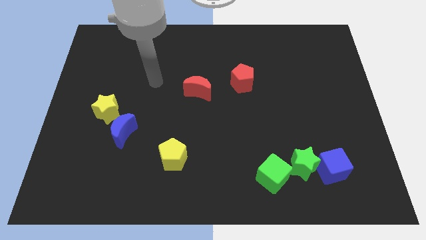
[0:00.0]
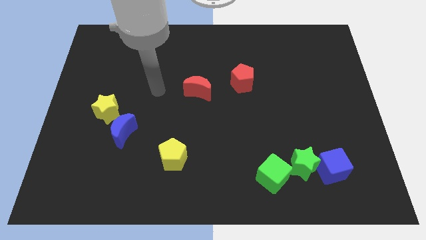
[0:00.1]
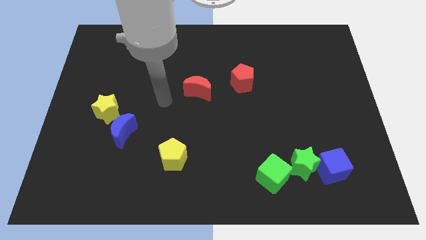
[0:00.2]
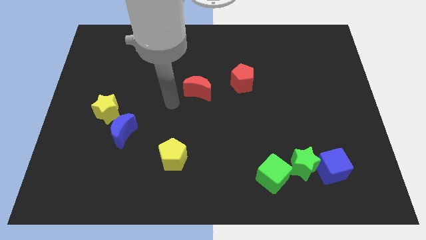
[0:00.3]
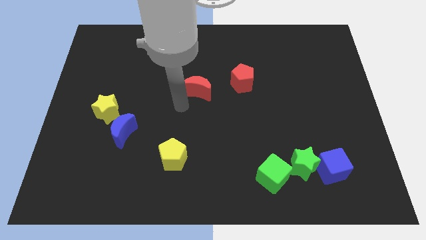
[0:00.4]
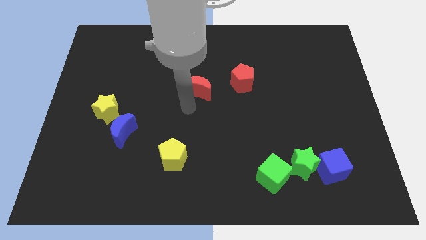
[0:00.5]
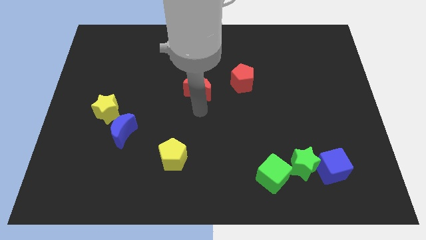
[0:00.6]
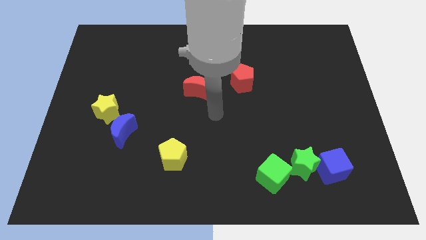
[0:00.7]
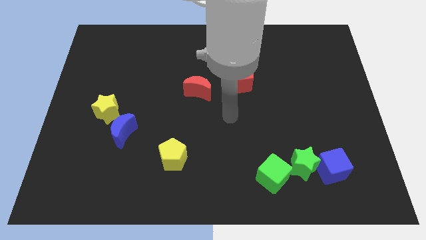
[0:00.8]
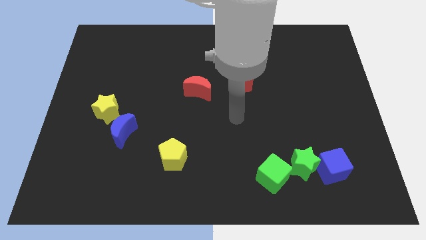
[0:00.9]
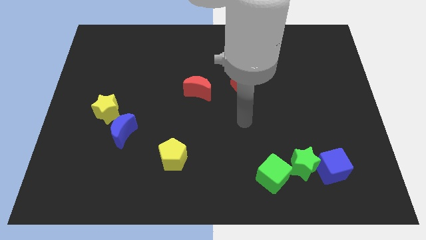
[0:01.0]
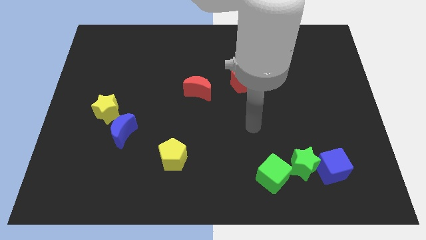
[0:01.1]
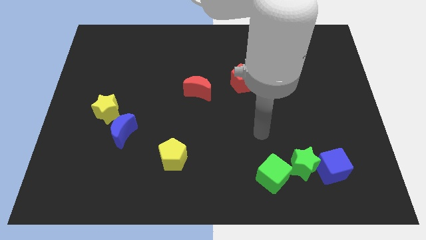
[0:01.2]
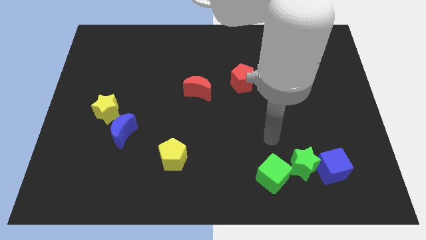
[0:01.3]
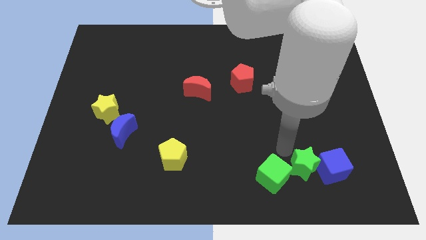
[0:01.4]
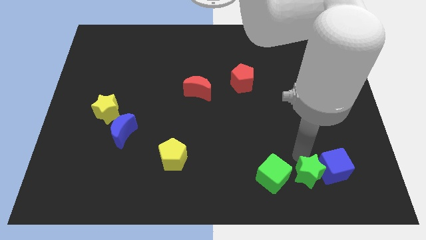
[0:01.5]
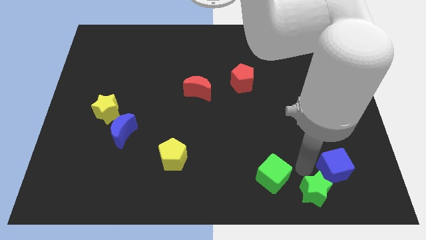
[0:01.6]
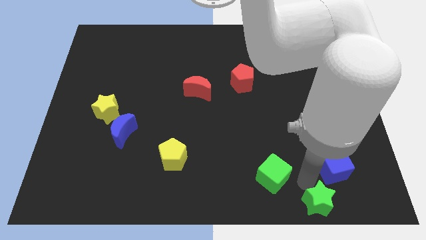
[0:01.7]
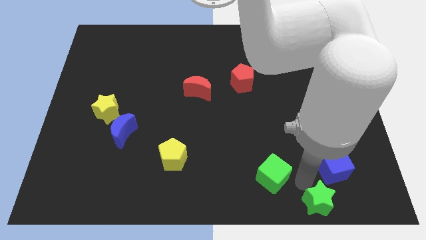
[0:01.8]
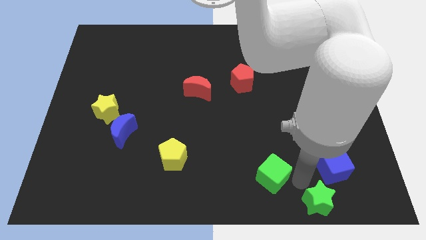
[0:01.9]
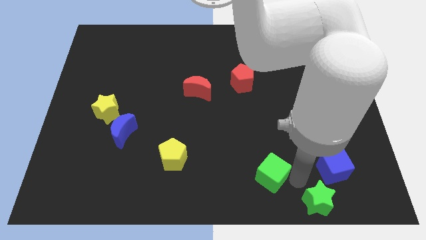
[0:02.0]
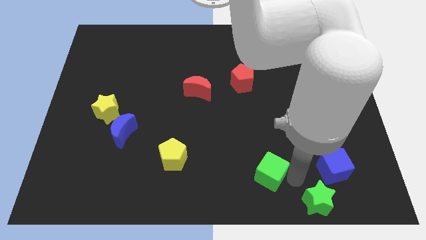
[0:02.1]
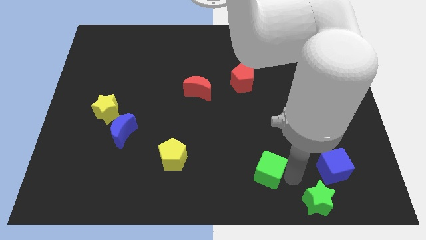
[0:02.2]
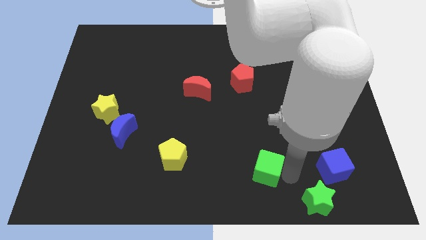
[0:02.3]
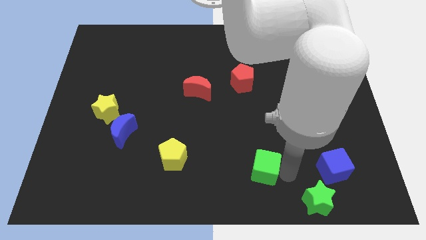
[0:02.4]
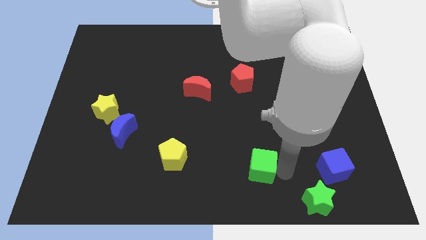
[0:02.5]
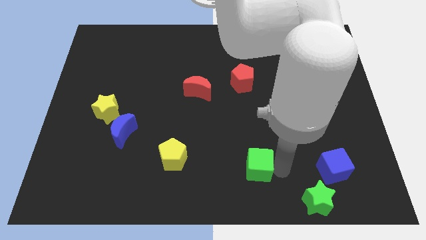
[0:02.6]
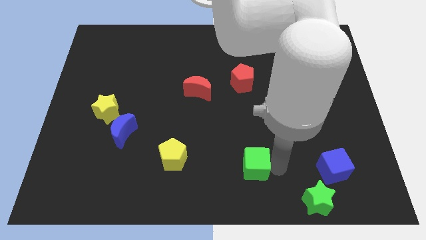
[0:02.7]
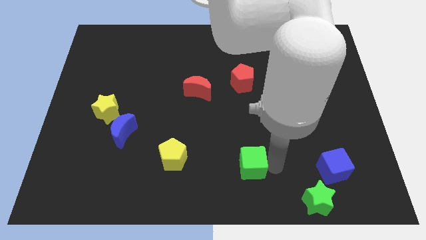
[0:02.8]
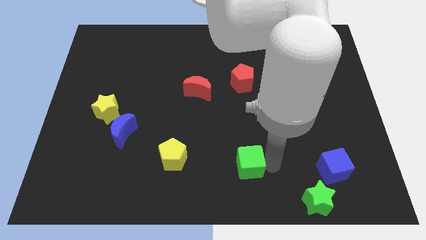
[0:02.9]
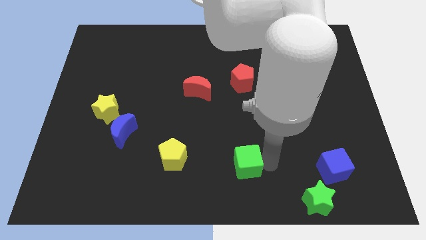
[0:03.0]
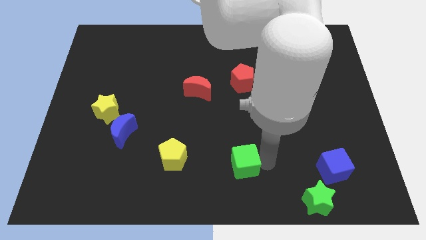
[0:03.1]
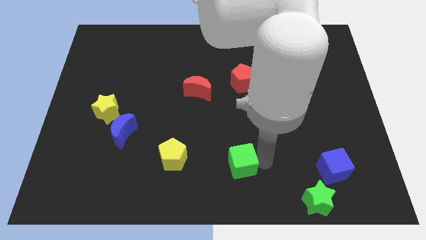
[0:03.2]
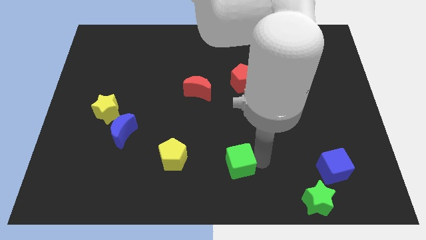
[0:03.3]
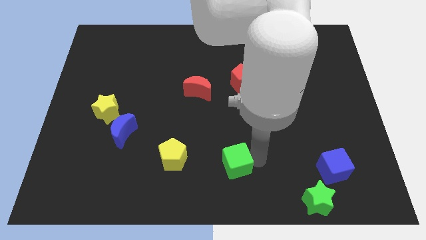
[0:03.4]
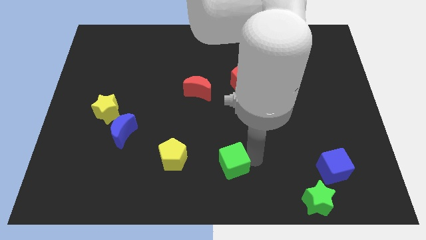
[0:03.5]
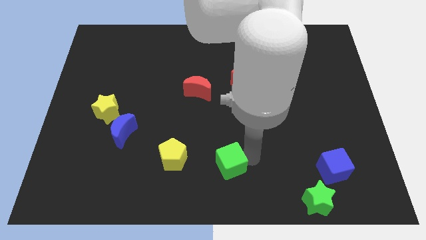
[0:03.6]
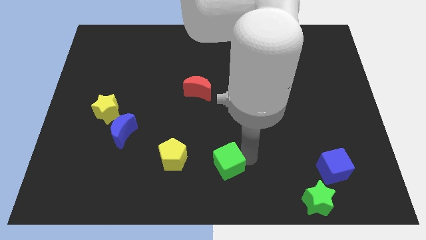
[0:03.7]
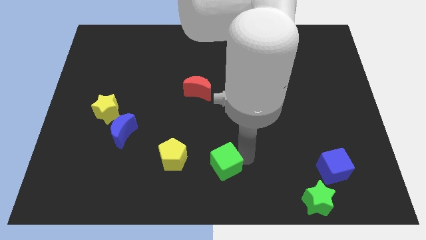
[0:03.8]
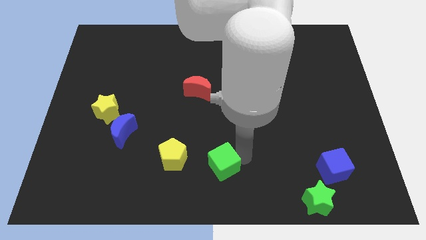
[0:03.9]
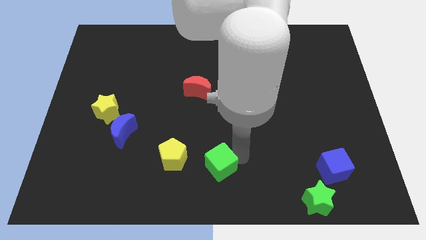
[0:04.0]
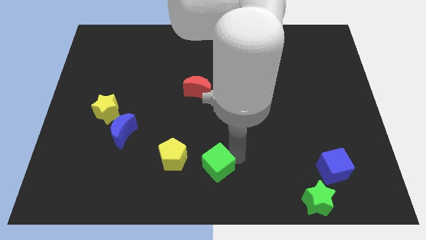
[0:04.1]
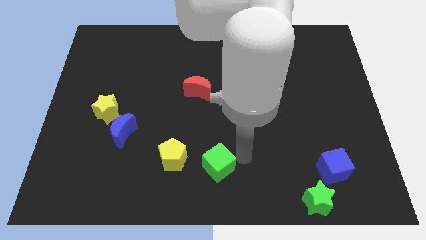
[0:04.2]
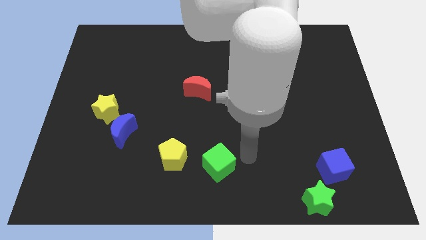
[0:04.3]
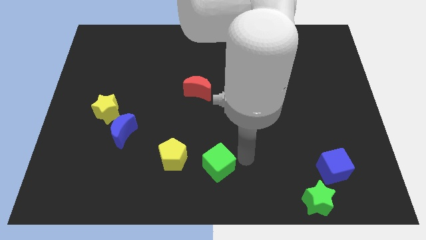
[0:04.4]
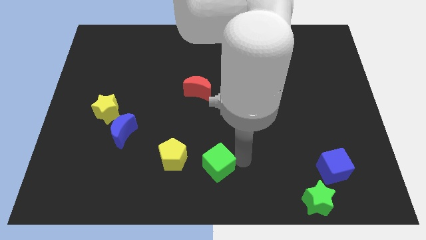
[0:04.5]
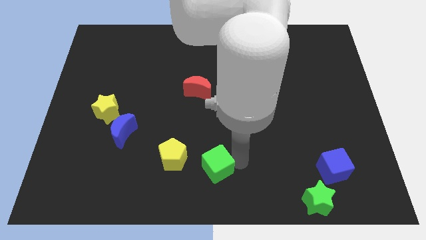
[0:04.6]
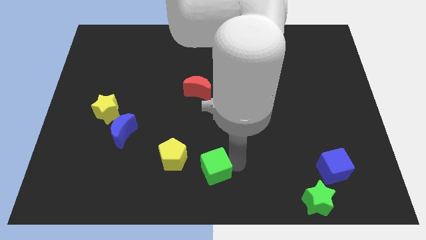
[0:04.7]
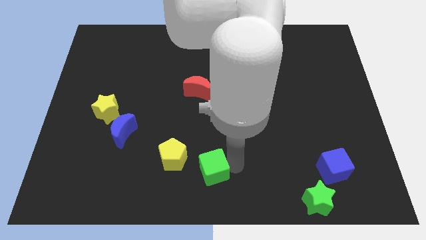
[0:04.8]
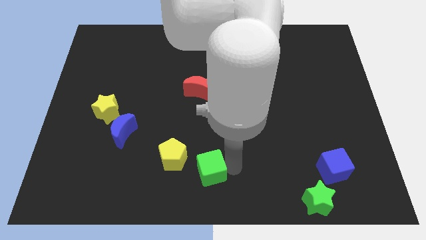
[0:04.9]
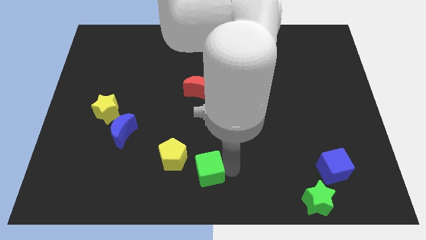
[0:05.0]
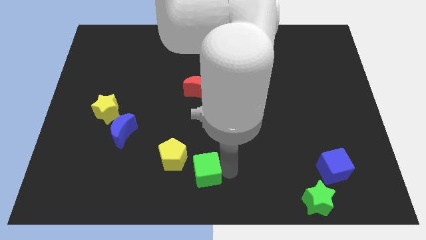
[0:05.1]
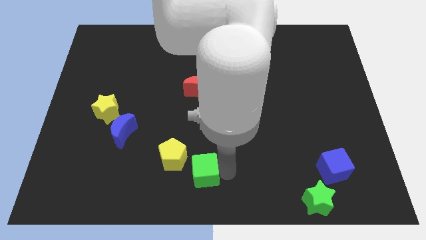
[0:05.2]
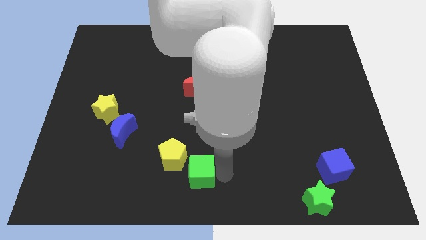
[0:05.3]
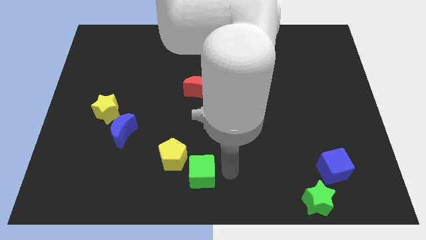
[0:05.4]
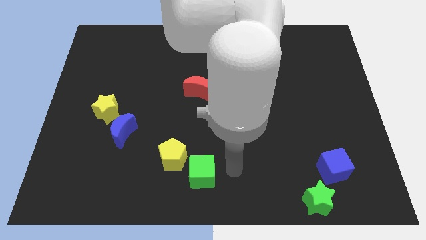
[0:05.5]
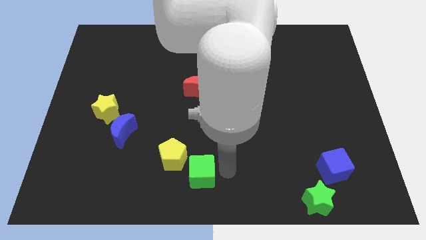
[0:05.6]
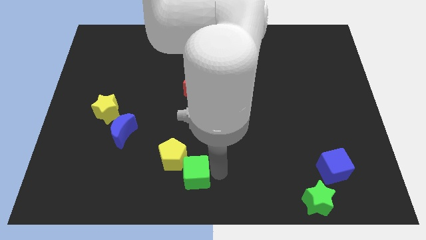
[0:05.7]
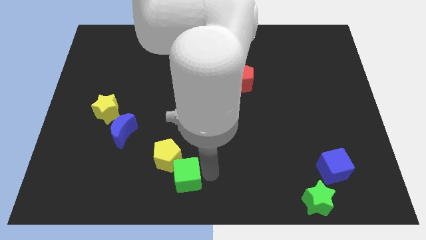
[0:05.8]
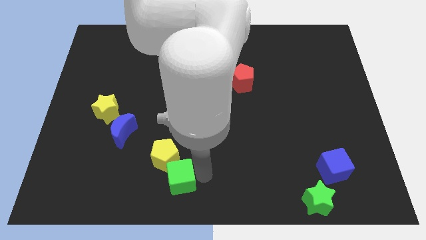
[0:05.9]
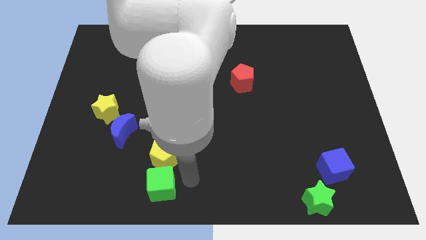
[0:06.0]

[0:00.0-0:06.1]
slide the green cube left

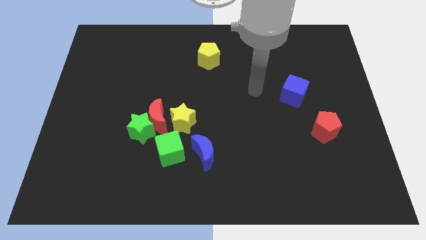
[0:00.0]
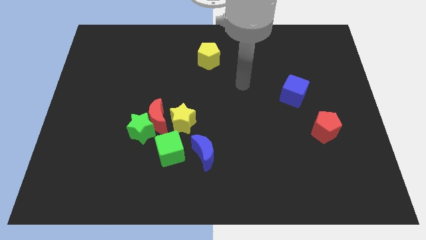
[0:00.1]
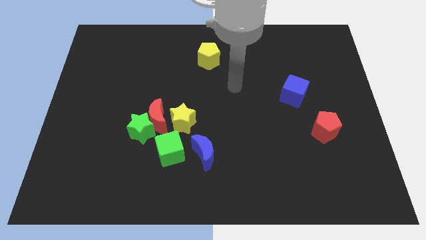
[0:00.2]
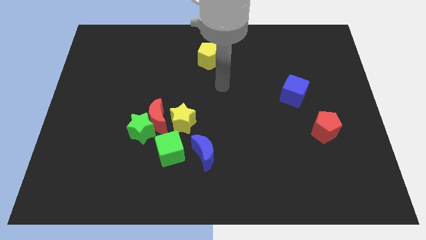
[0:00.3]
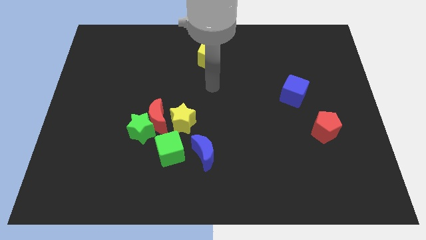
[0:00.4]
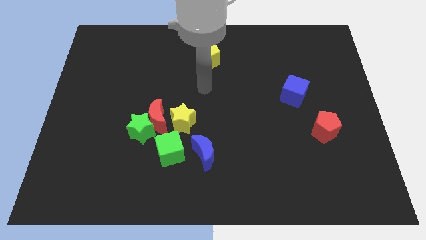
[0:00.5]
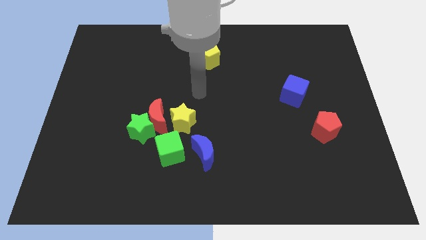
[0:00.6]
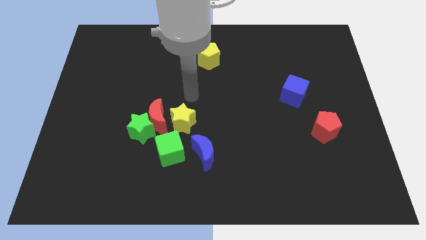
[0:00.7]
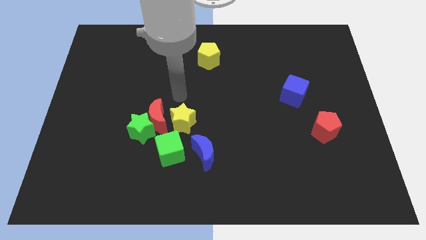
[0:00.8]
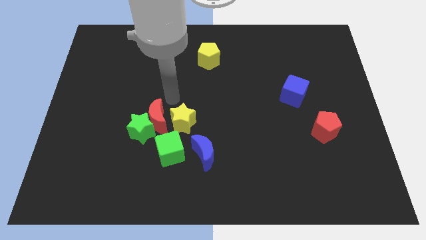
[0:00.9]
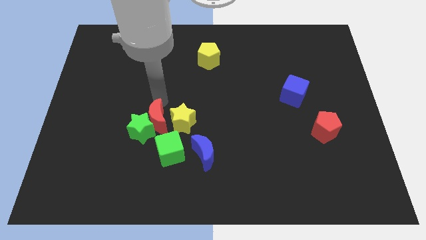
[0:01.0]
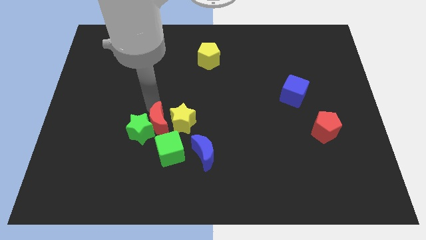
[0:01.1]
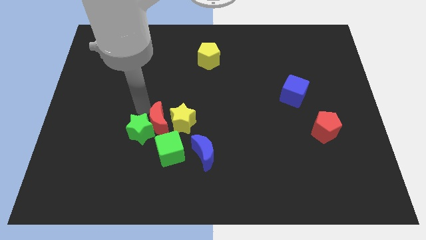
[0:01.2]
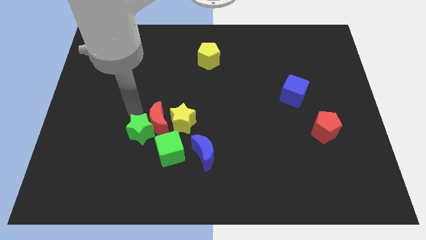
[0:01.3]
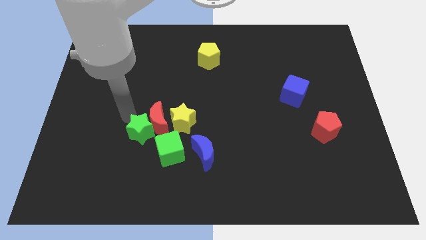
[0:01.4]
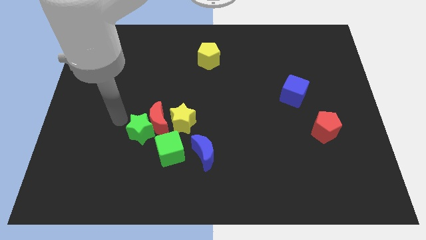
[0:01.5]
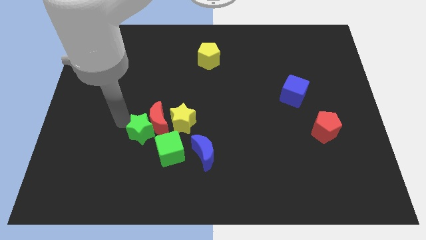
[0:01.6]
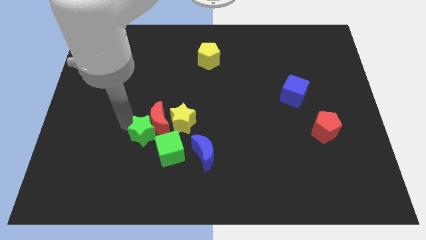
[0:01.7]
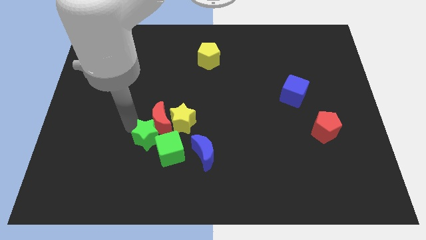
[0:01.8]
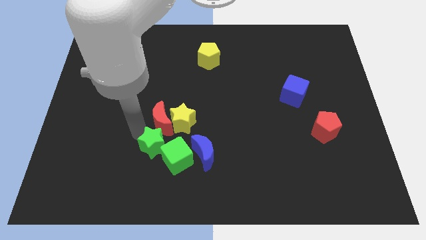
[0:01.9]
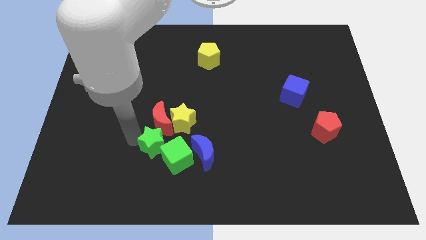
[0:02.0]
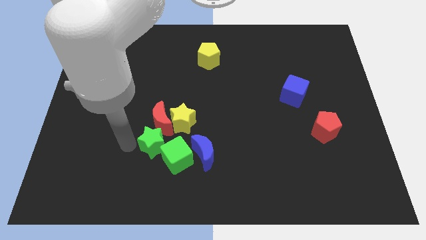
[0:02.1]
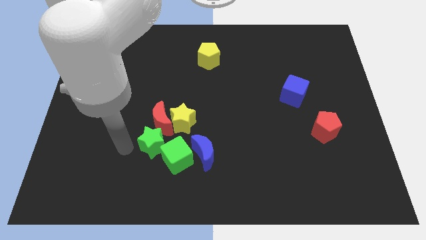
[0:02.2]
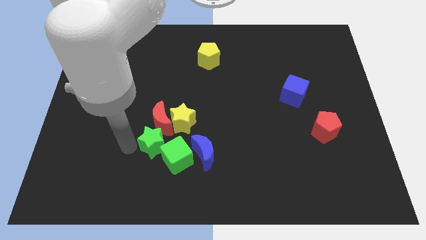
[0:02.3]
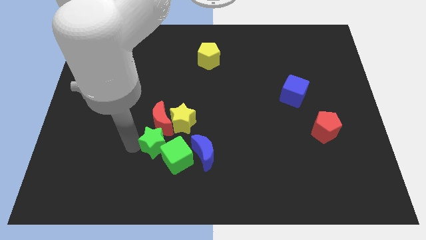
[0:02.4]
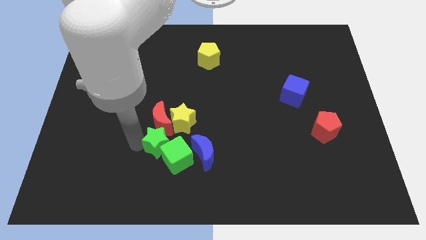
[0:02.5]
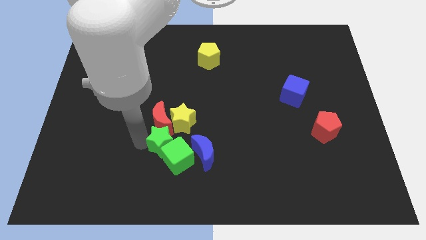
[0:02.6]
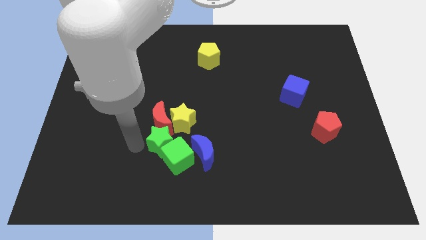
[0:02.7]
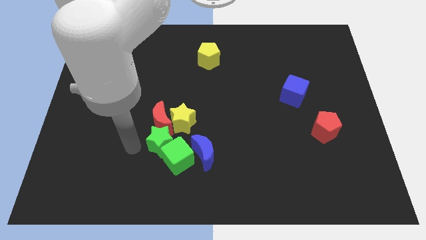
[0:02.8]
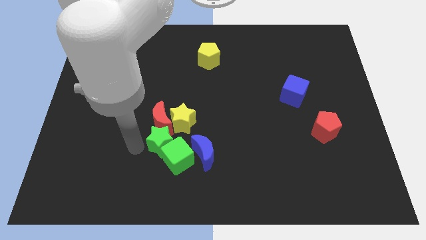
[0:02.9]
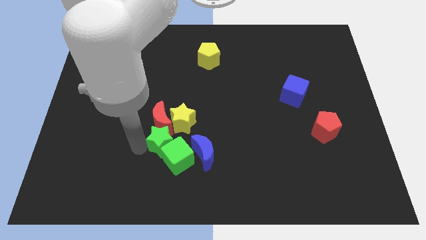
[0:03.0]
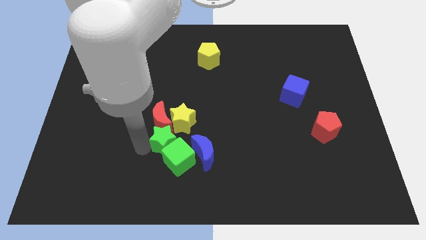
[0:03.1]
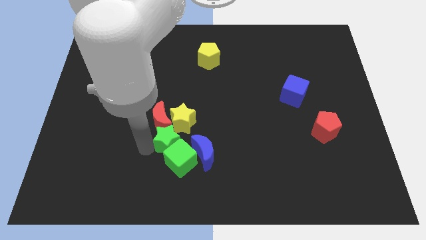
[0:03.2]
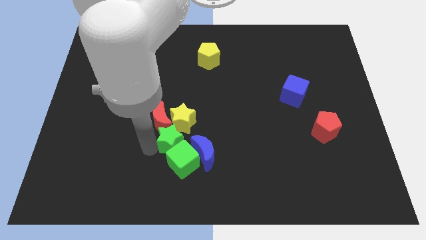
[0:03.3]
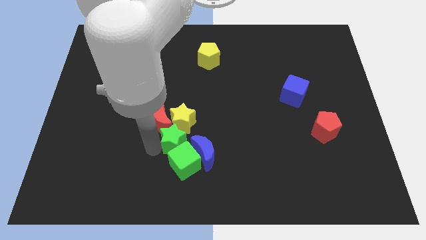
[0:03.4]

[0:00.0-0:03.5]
slide the green star right slightly
